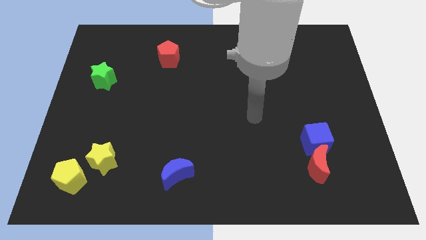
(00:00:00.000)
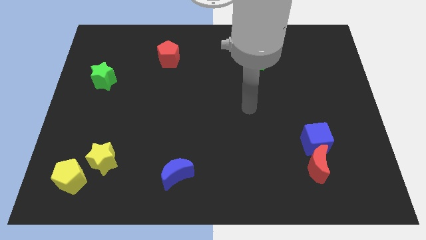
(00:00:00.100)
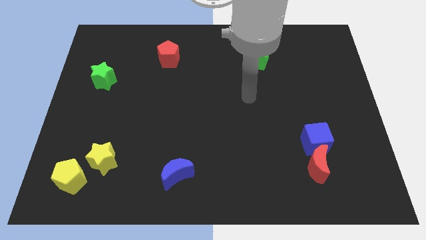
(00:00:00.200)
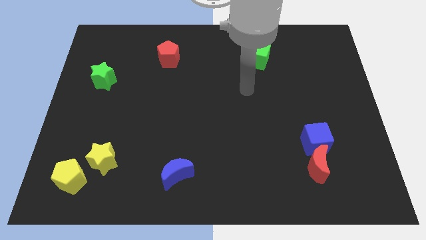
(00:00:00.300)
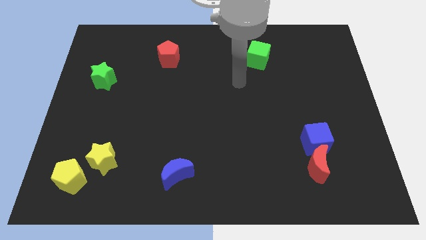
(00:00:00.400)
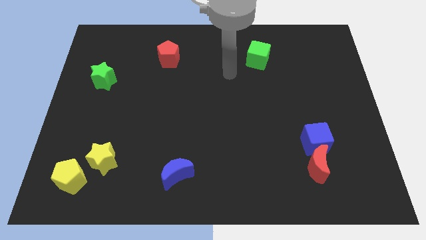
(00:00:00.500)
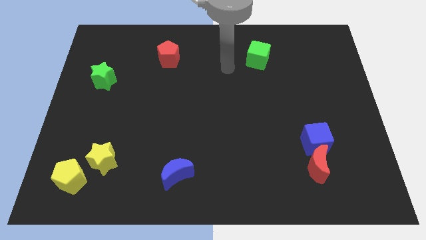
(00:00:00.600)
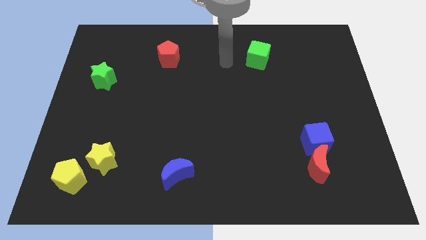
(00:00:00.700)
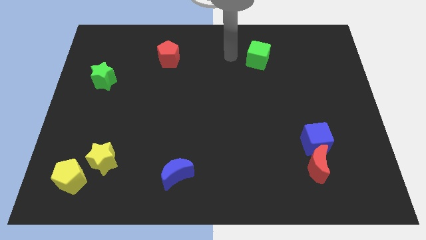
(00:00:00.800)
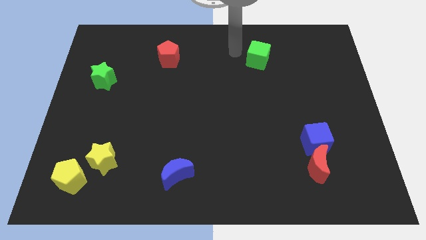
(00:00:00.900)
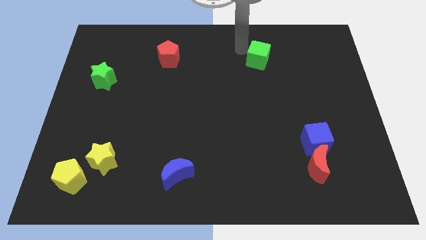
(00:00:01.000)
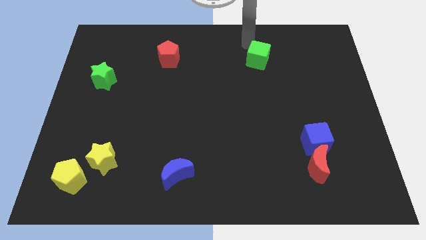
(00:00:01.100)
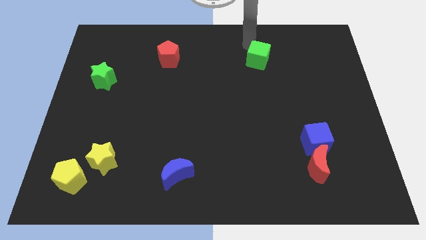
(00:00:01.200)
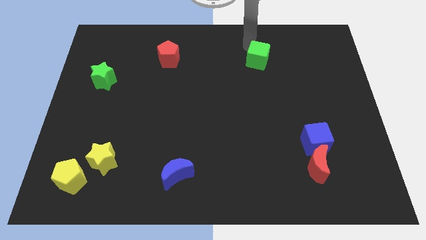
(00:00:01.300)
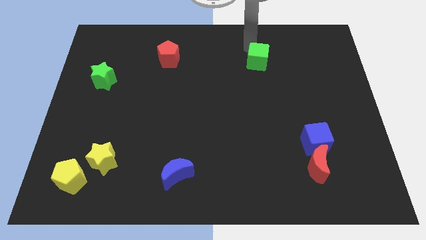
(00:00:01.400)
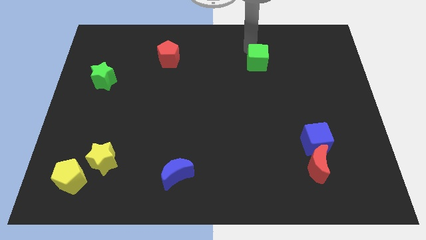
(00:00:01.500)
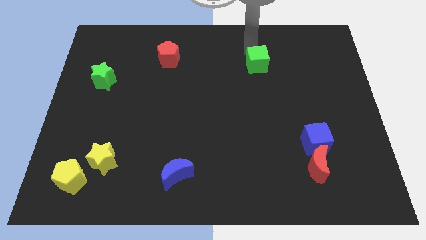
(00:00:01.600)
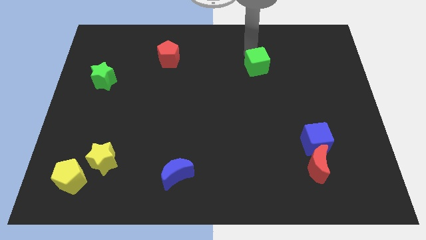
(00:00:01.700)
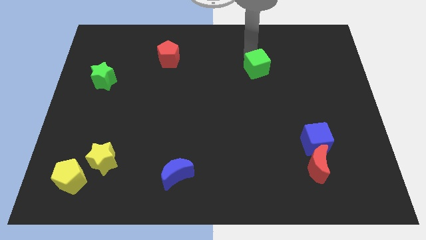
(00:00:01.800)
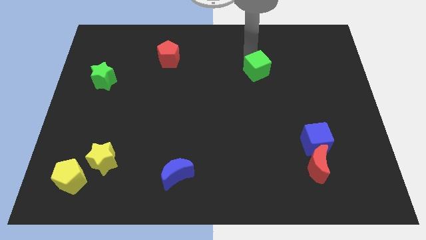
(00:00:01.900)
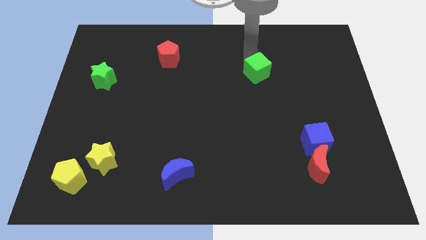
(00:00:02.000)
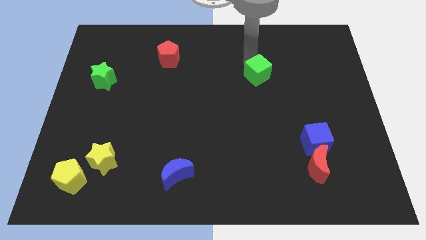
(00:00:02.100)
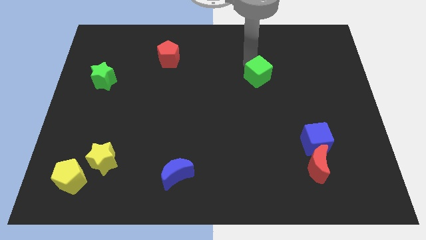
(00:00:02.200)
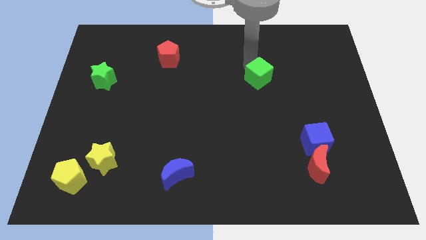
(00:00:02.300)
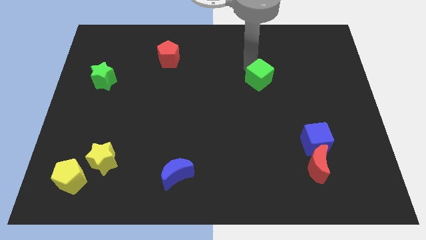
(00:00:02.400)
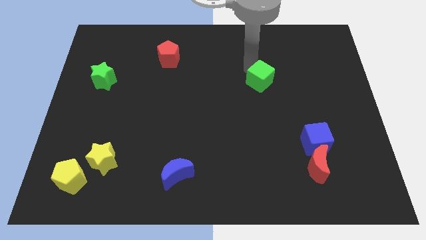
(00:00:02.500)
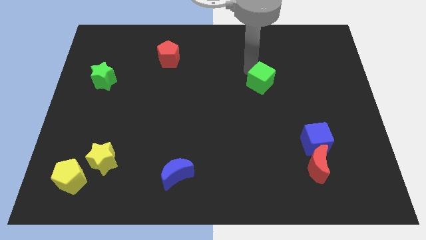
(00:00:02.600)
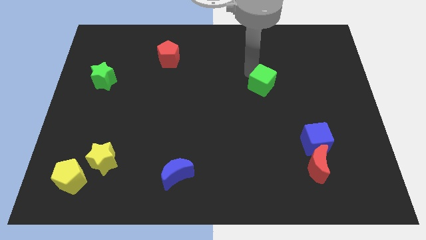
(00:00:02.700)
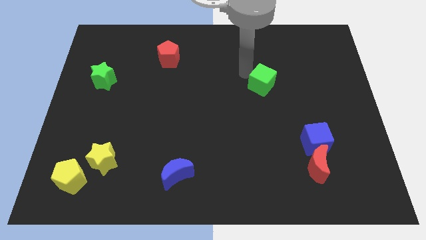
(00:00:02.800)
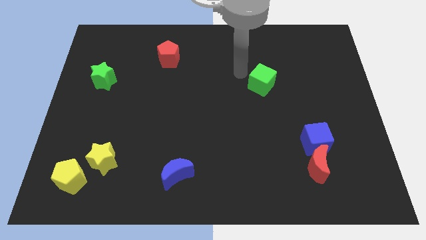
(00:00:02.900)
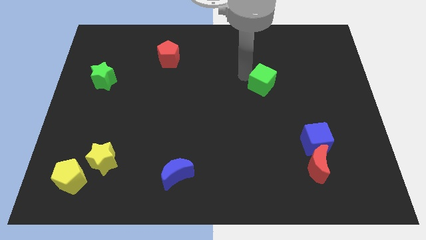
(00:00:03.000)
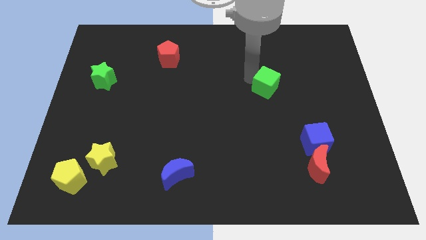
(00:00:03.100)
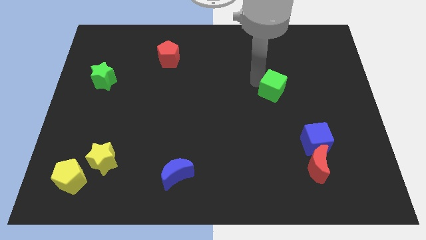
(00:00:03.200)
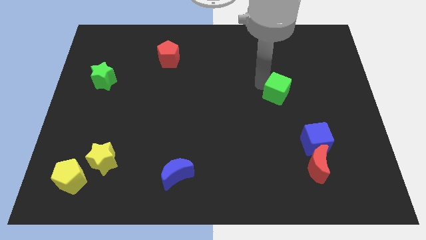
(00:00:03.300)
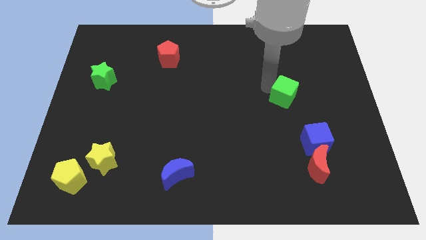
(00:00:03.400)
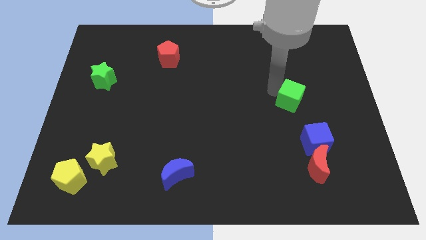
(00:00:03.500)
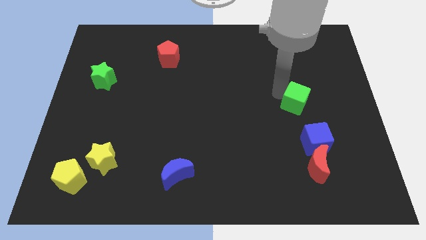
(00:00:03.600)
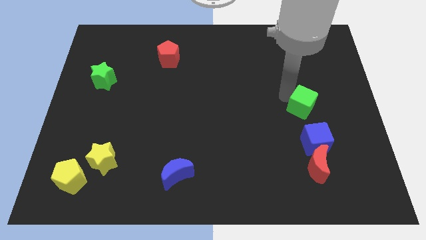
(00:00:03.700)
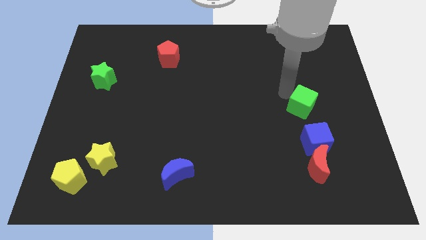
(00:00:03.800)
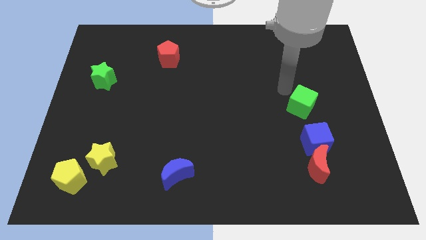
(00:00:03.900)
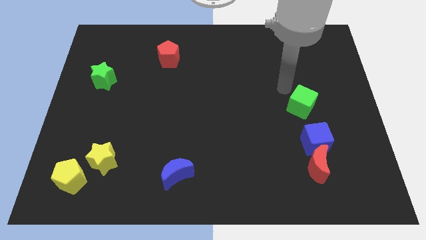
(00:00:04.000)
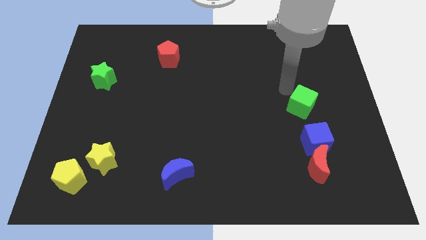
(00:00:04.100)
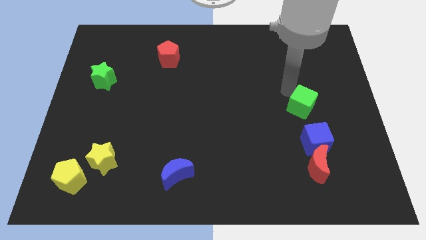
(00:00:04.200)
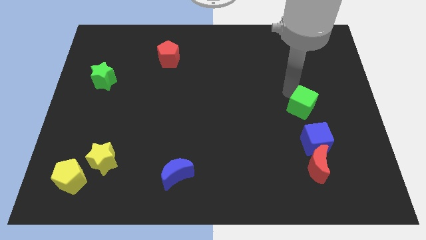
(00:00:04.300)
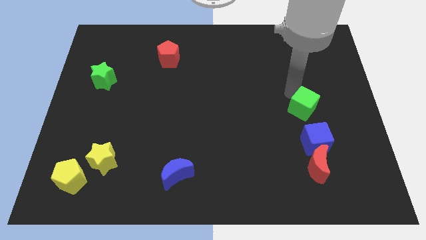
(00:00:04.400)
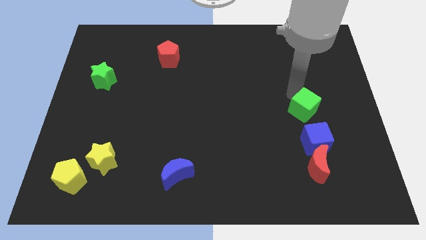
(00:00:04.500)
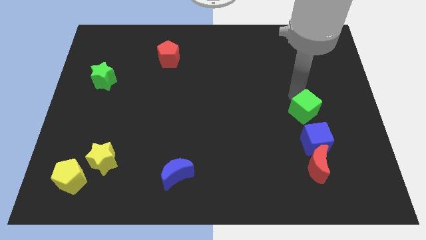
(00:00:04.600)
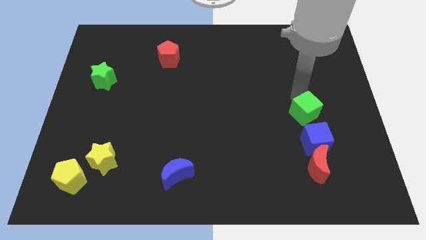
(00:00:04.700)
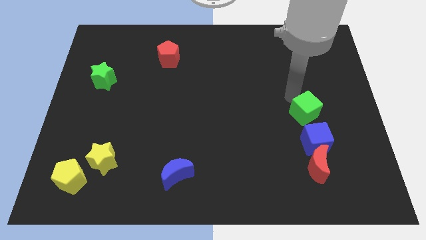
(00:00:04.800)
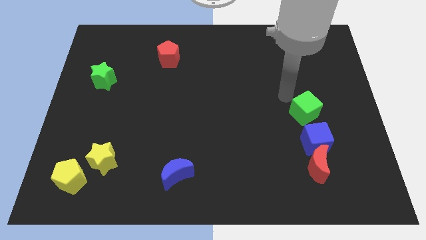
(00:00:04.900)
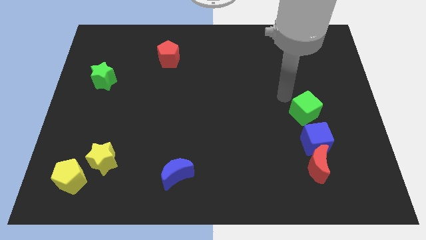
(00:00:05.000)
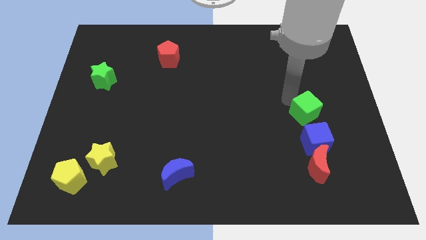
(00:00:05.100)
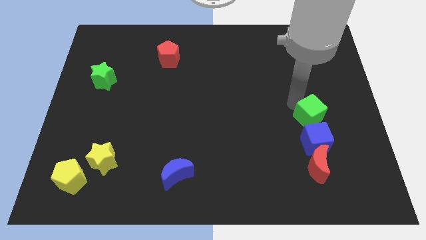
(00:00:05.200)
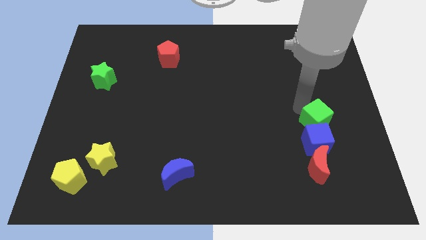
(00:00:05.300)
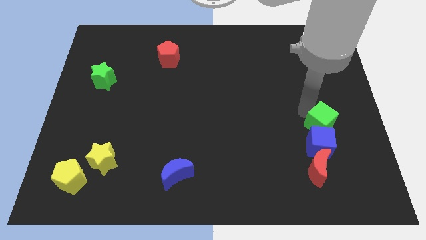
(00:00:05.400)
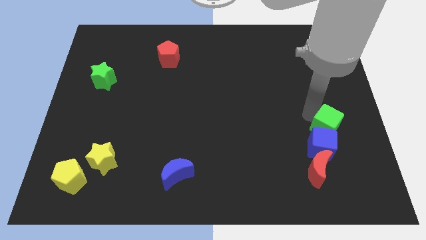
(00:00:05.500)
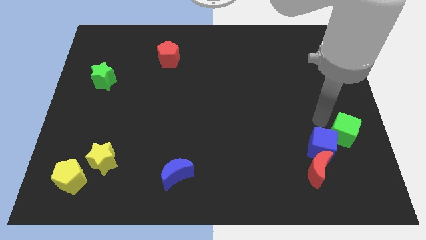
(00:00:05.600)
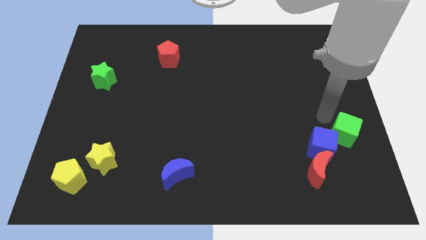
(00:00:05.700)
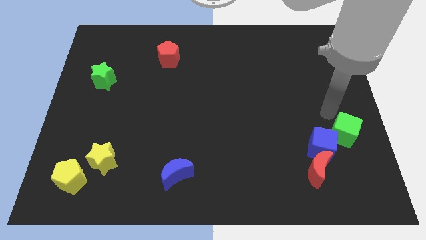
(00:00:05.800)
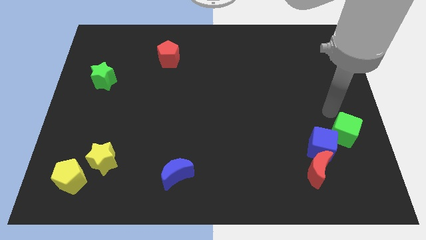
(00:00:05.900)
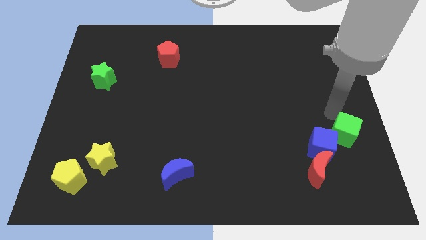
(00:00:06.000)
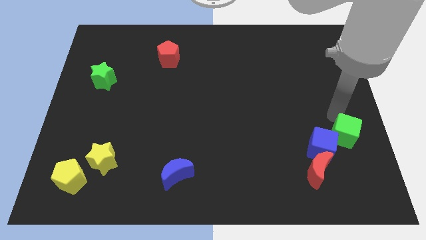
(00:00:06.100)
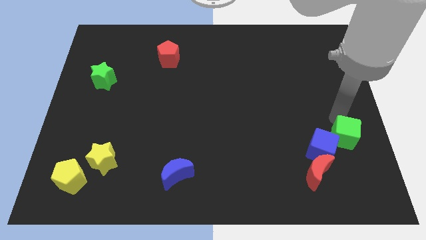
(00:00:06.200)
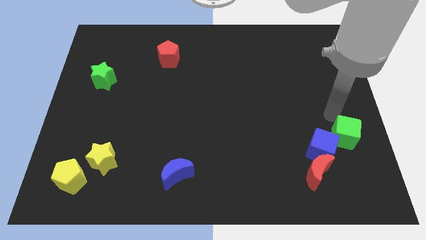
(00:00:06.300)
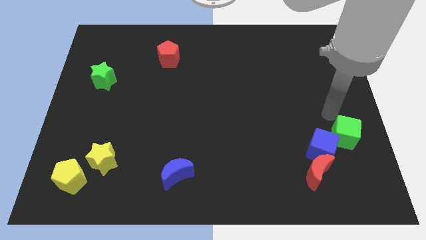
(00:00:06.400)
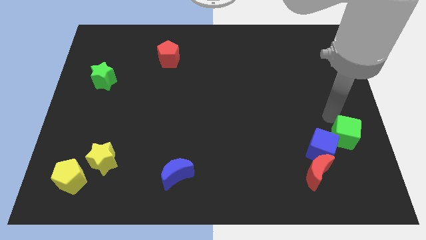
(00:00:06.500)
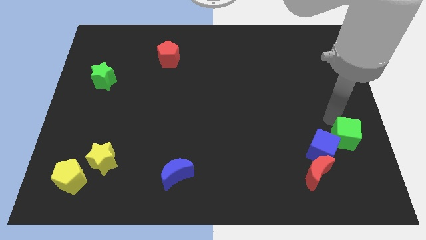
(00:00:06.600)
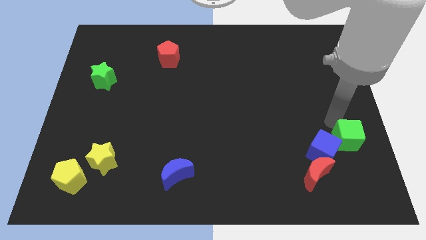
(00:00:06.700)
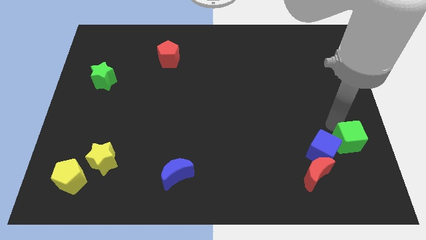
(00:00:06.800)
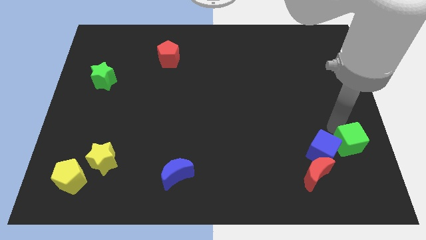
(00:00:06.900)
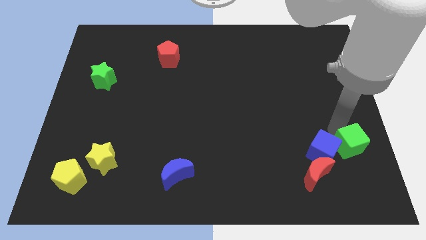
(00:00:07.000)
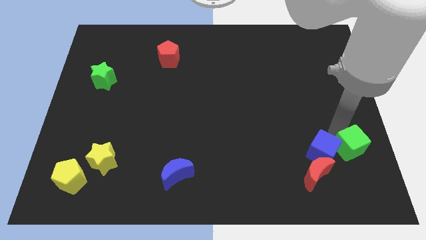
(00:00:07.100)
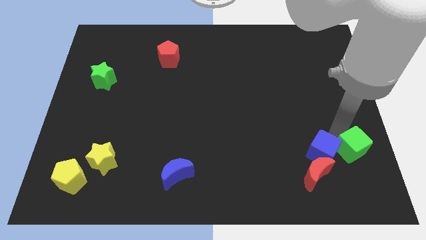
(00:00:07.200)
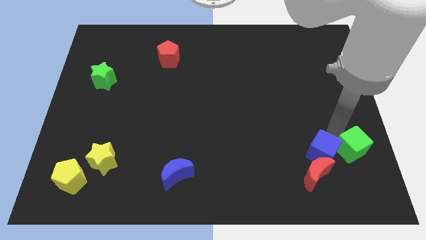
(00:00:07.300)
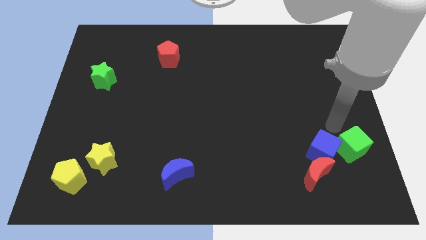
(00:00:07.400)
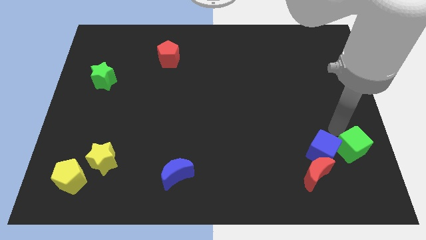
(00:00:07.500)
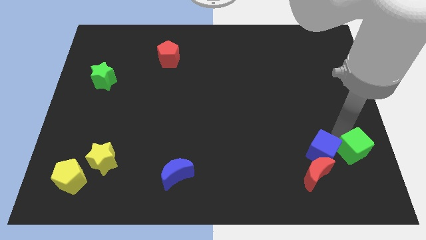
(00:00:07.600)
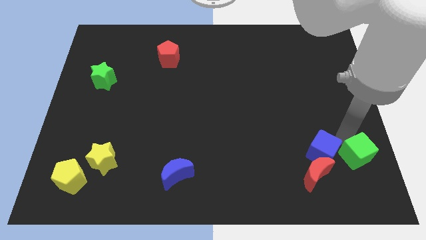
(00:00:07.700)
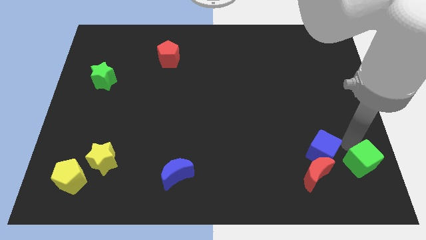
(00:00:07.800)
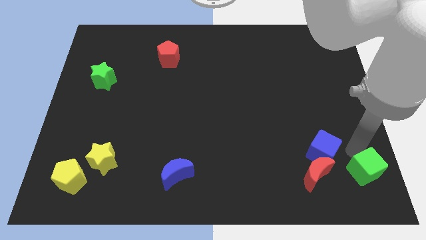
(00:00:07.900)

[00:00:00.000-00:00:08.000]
put the green cube to the bottom right
